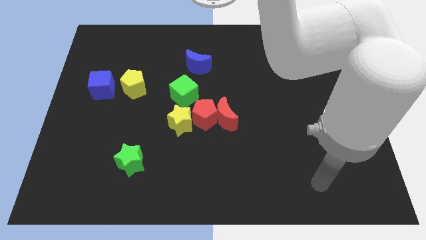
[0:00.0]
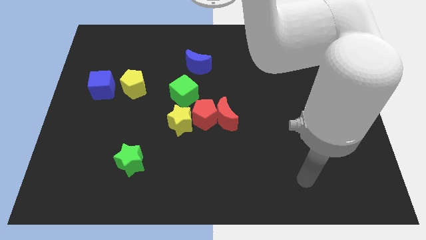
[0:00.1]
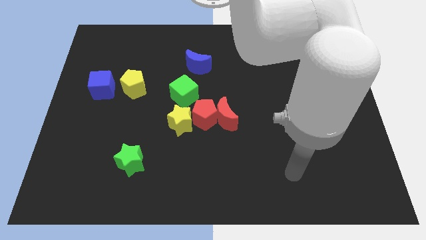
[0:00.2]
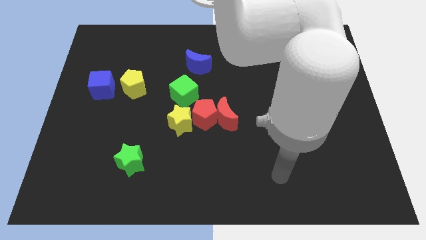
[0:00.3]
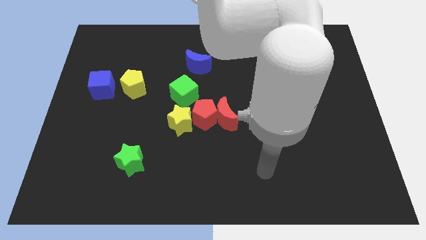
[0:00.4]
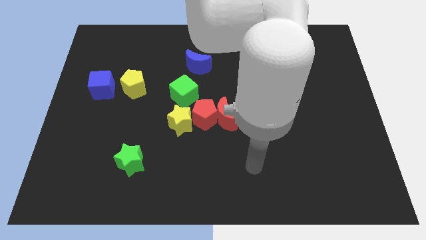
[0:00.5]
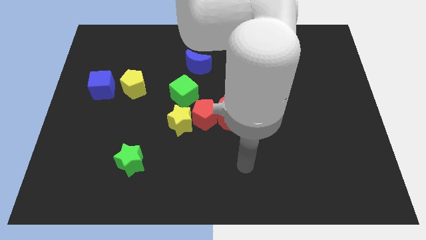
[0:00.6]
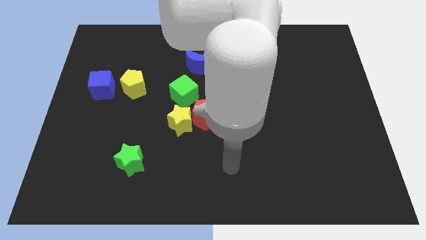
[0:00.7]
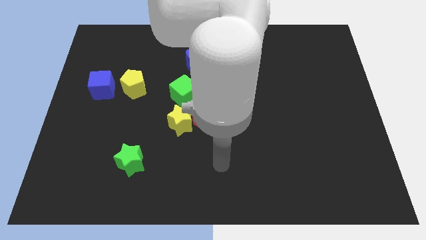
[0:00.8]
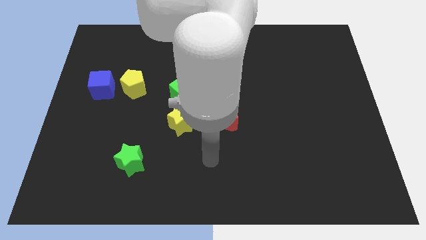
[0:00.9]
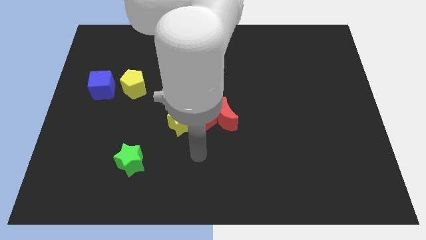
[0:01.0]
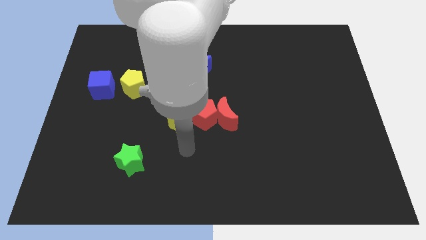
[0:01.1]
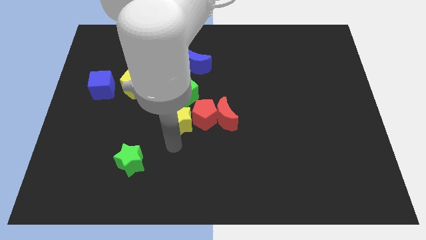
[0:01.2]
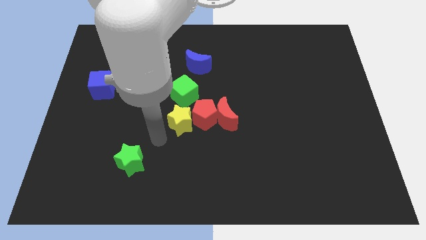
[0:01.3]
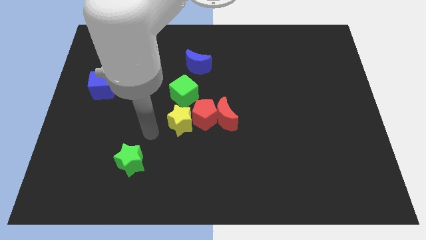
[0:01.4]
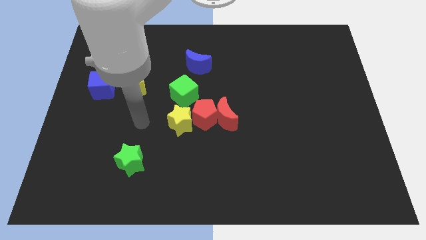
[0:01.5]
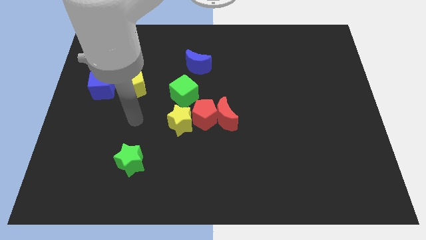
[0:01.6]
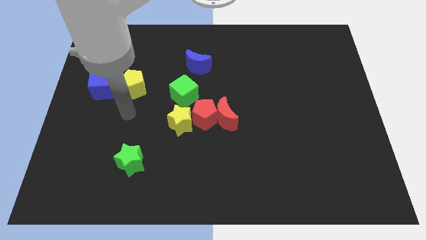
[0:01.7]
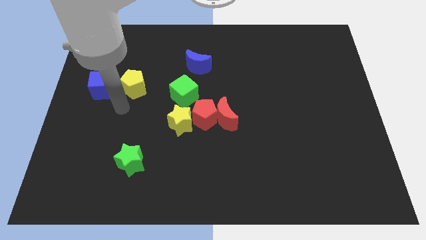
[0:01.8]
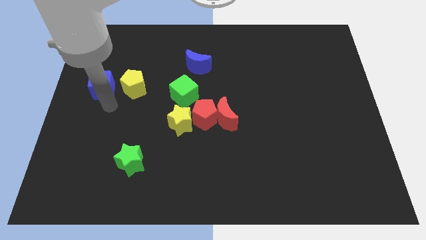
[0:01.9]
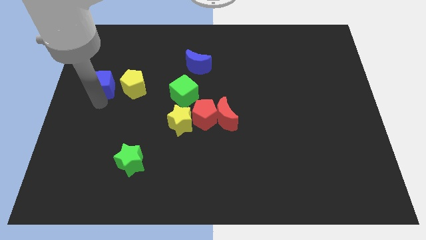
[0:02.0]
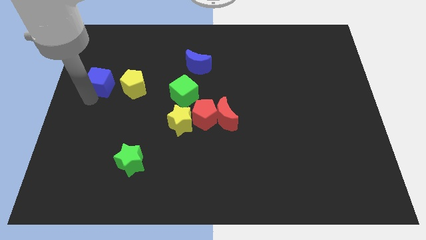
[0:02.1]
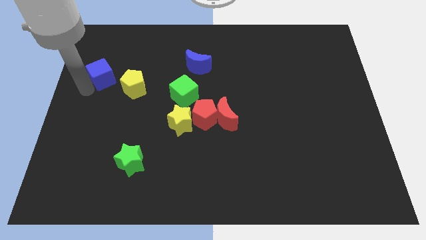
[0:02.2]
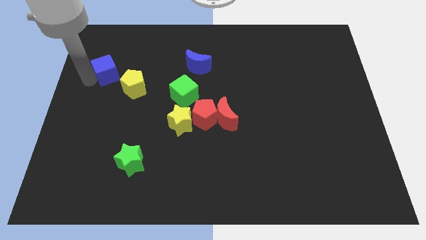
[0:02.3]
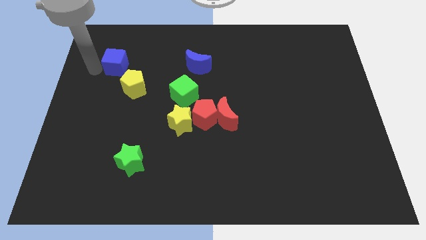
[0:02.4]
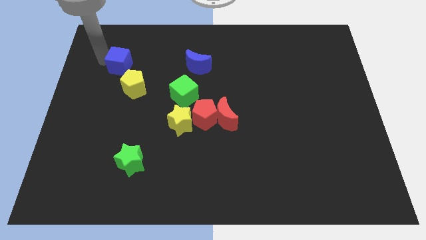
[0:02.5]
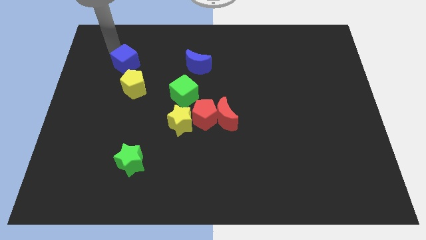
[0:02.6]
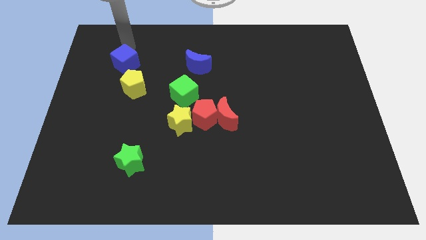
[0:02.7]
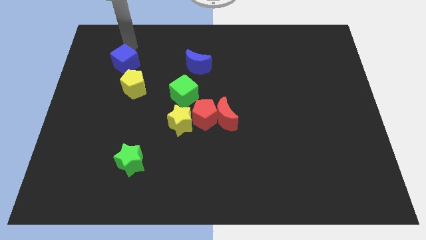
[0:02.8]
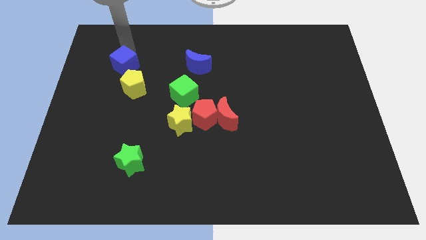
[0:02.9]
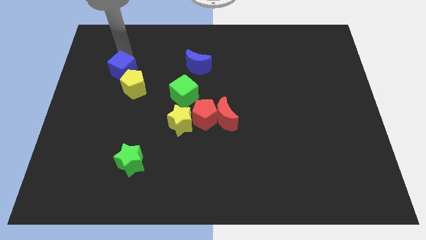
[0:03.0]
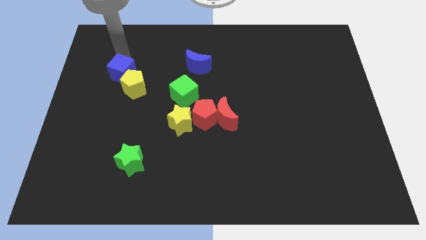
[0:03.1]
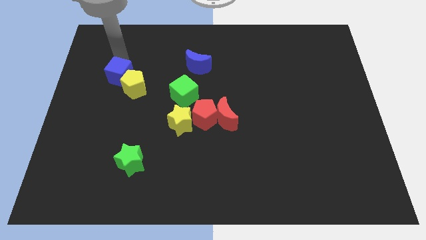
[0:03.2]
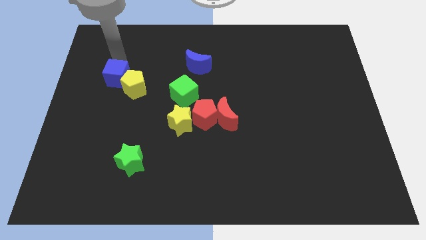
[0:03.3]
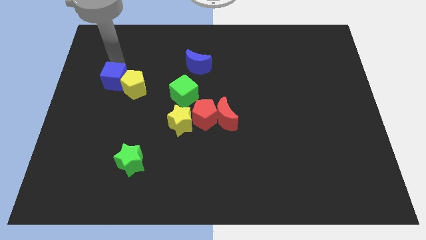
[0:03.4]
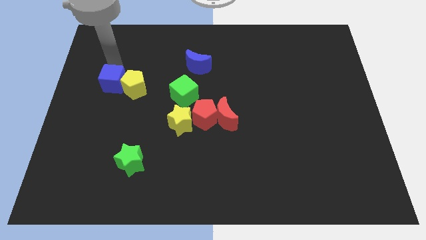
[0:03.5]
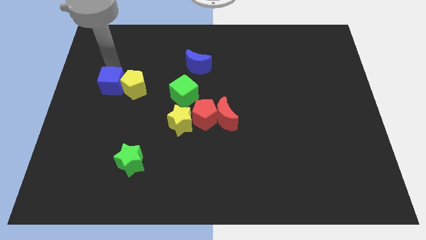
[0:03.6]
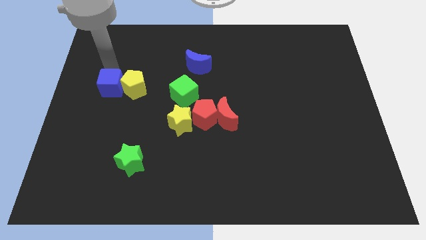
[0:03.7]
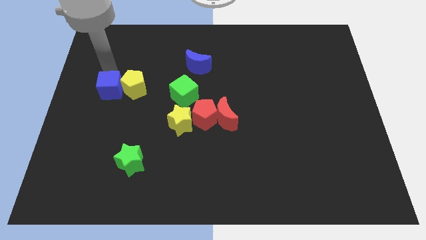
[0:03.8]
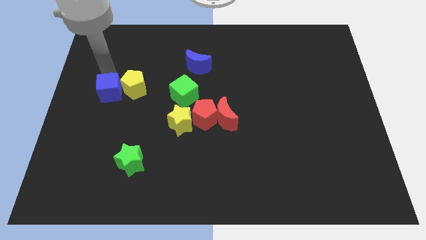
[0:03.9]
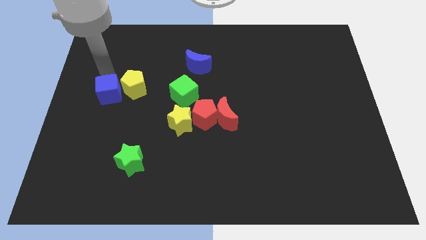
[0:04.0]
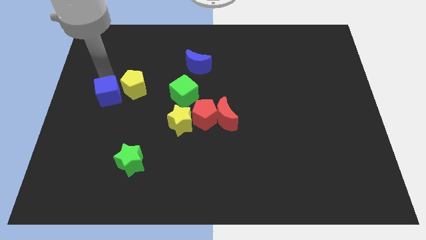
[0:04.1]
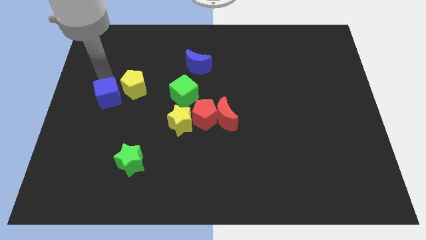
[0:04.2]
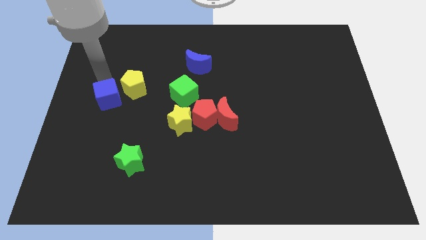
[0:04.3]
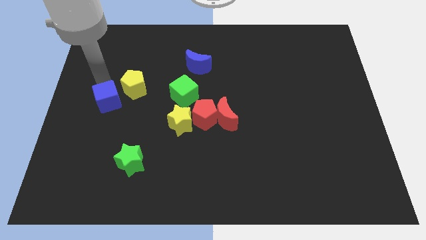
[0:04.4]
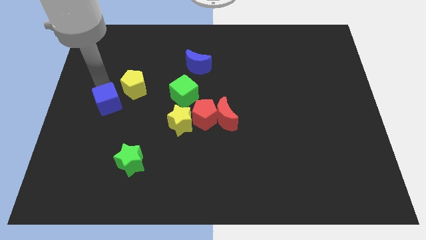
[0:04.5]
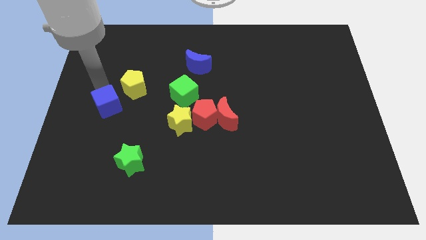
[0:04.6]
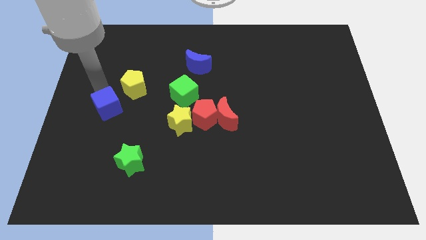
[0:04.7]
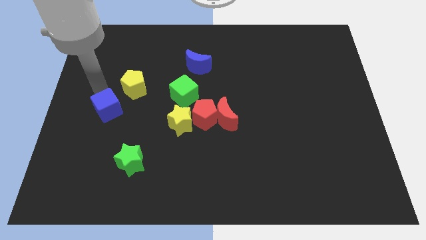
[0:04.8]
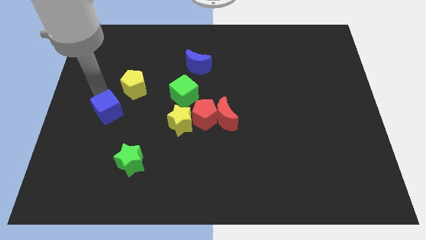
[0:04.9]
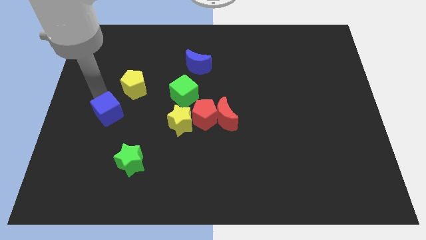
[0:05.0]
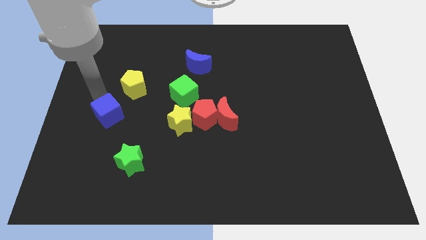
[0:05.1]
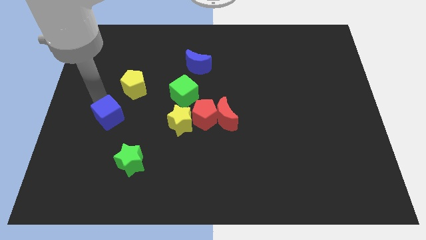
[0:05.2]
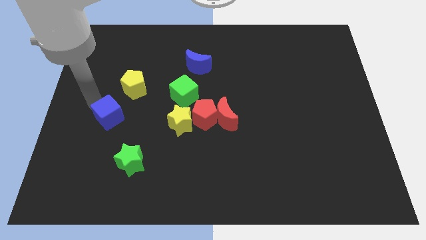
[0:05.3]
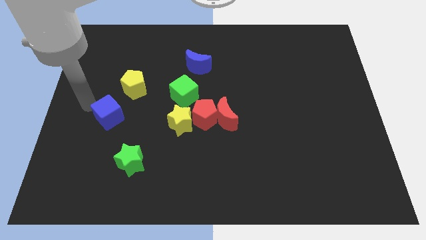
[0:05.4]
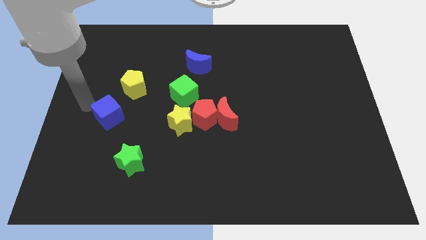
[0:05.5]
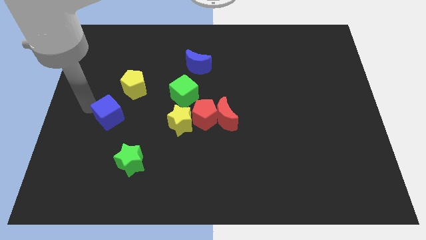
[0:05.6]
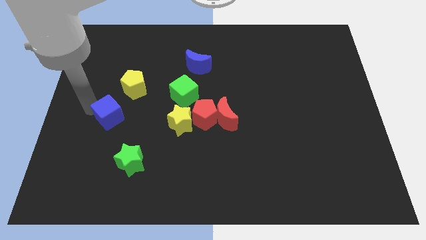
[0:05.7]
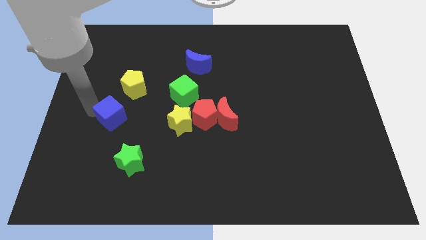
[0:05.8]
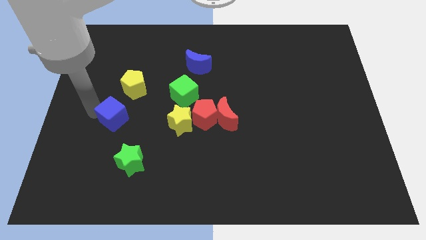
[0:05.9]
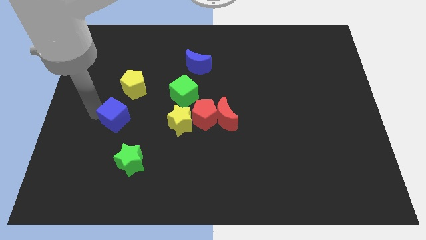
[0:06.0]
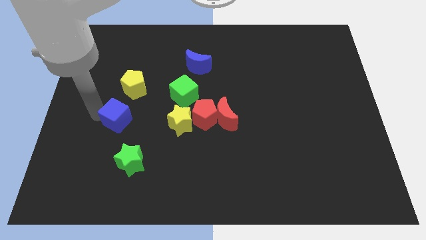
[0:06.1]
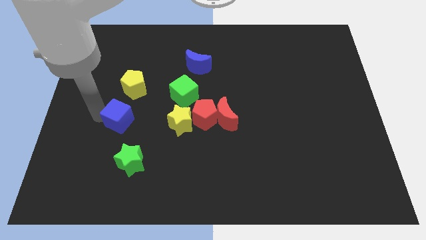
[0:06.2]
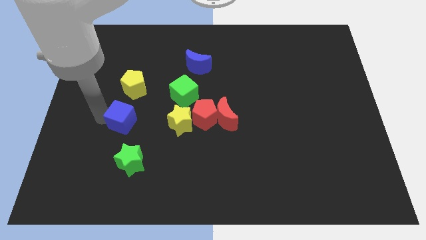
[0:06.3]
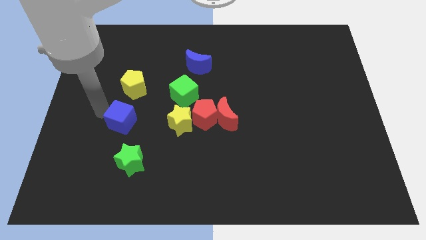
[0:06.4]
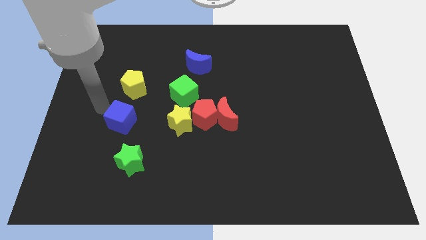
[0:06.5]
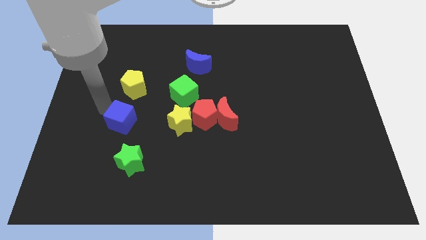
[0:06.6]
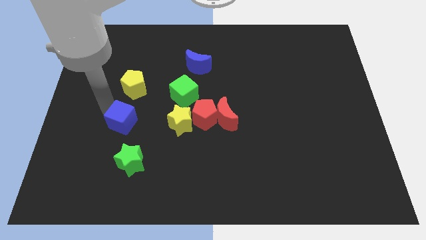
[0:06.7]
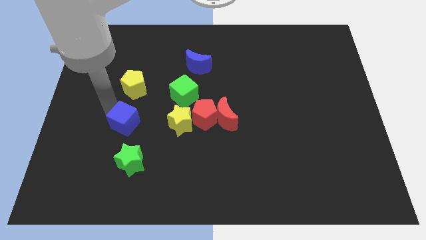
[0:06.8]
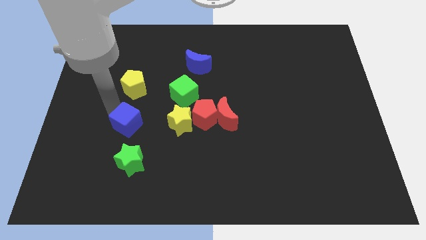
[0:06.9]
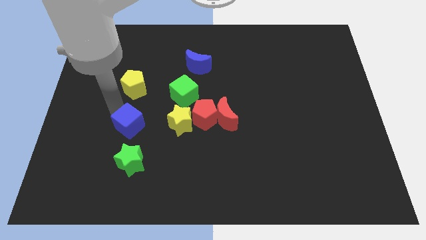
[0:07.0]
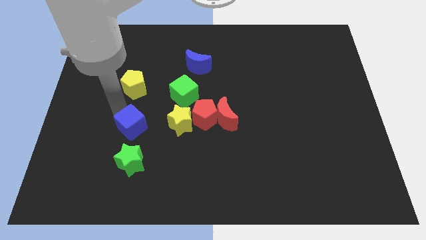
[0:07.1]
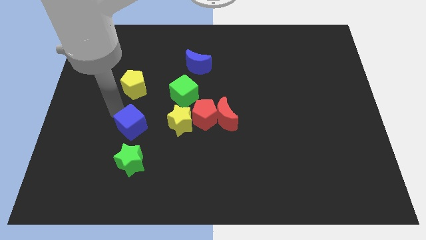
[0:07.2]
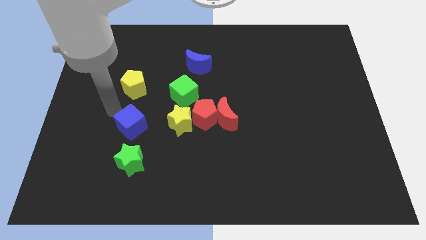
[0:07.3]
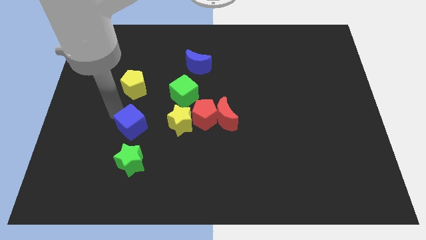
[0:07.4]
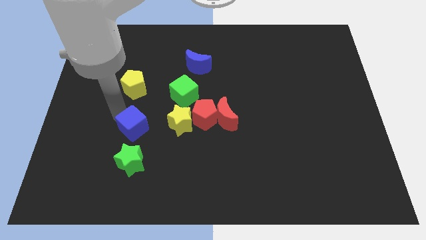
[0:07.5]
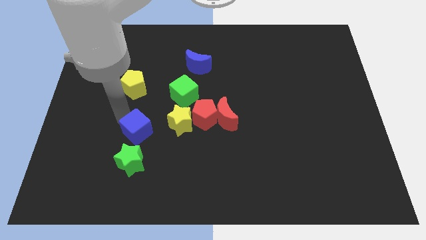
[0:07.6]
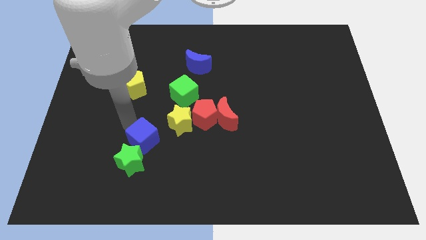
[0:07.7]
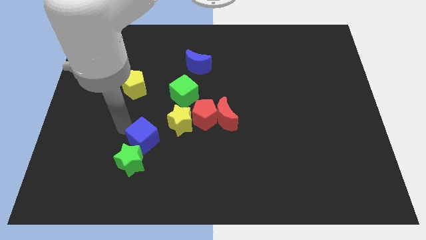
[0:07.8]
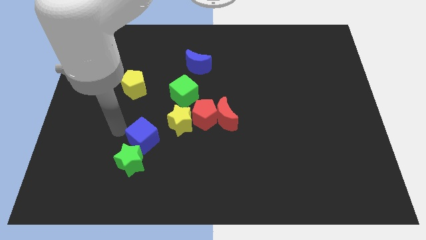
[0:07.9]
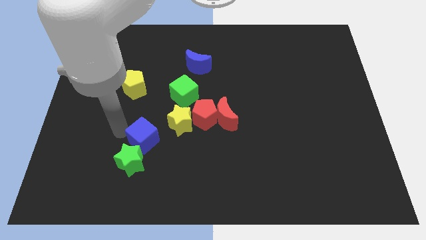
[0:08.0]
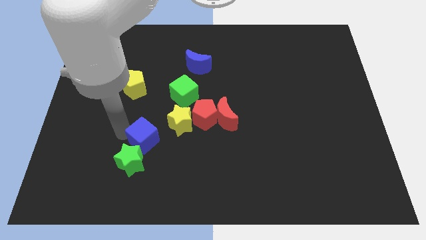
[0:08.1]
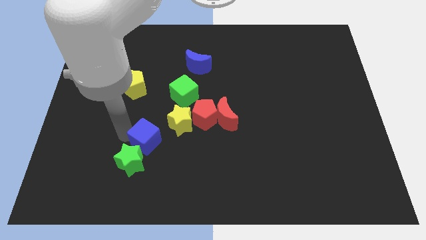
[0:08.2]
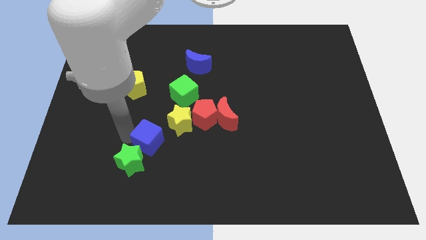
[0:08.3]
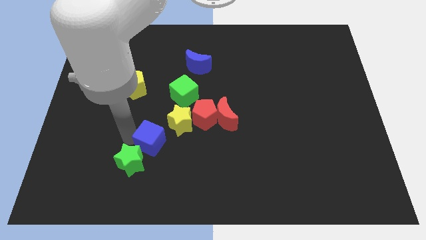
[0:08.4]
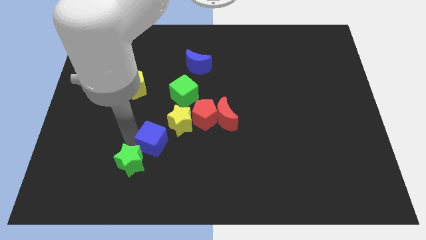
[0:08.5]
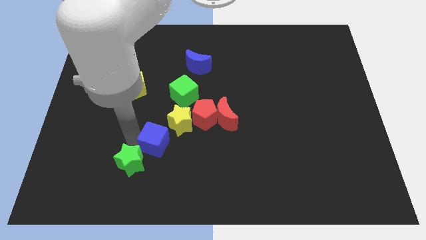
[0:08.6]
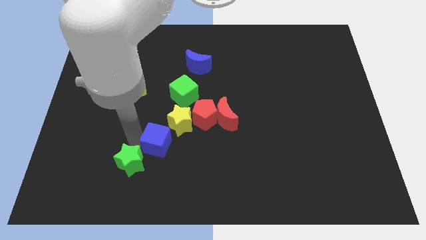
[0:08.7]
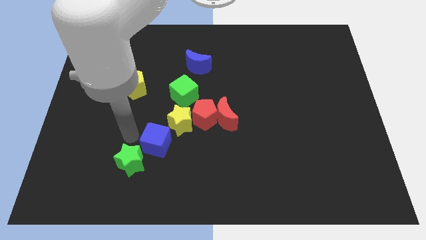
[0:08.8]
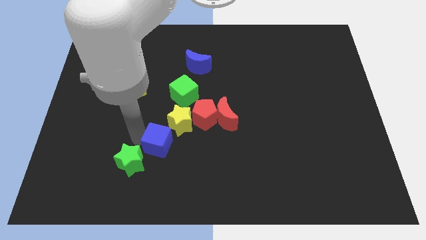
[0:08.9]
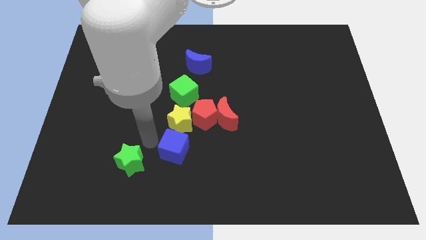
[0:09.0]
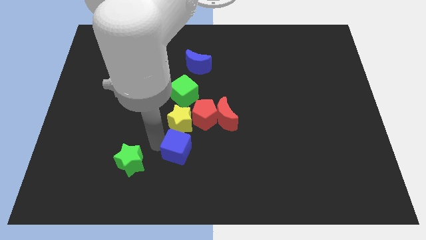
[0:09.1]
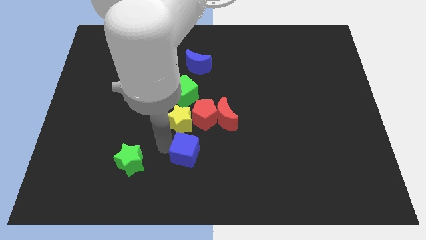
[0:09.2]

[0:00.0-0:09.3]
put the blue cube to the bottom side of the red pentagon
